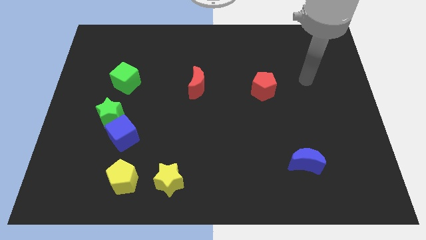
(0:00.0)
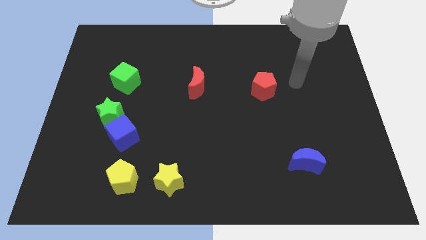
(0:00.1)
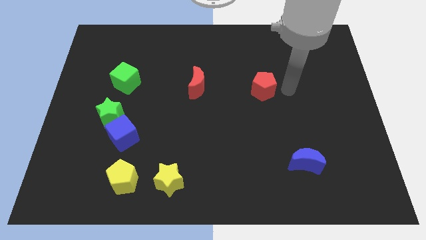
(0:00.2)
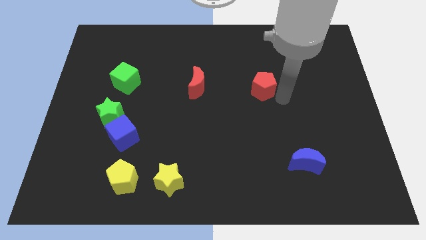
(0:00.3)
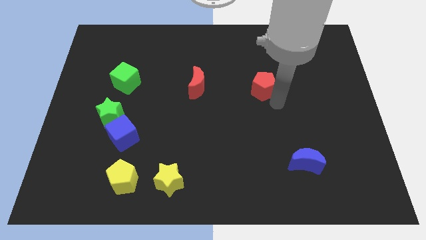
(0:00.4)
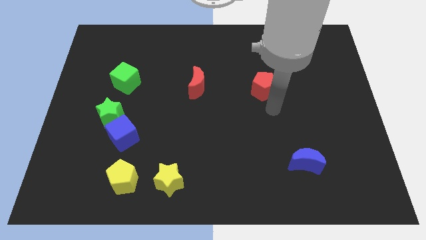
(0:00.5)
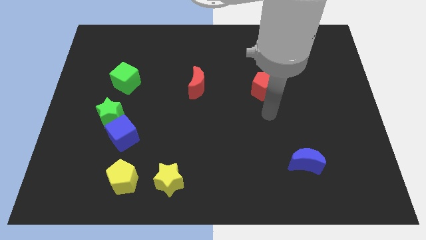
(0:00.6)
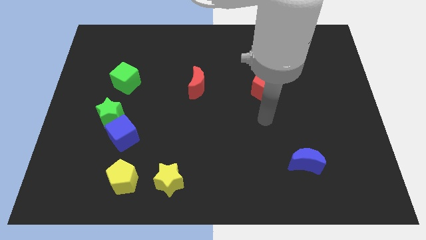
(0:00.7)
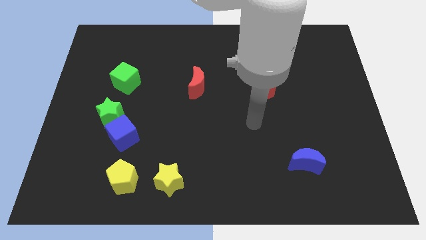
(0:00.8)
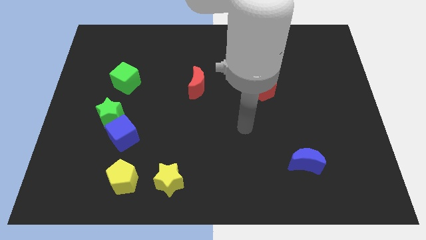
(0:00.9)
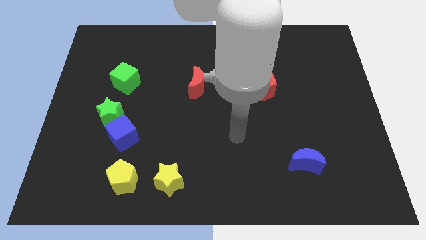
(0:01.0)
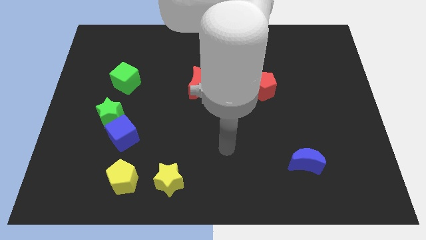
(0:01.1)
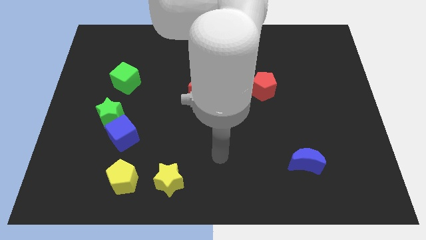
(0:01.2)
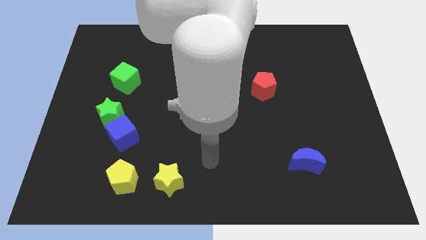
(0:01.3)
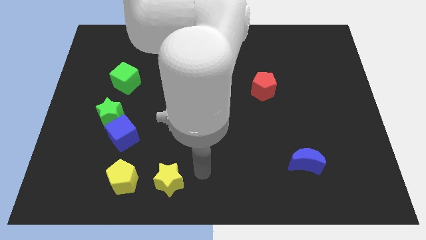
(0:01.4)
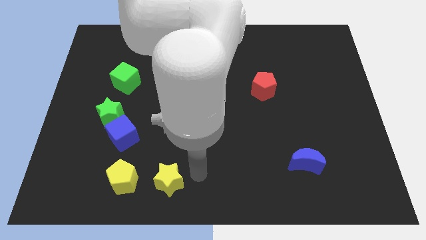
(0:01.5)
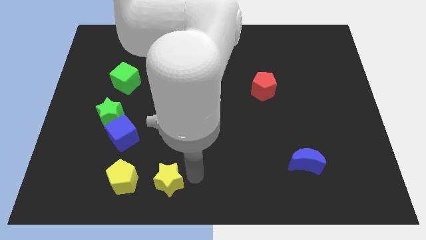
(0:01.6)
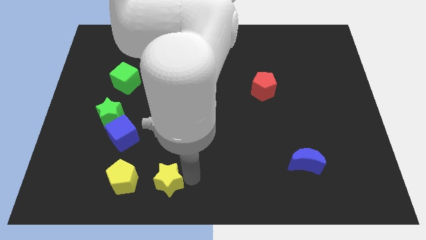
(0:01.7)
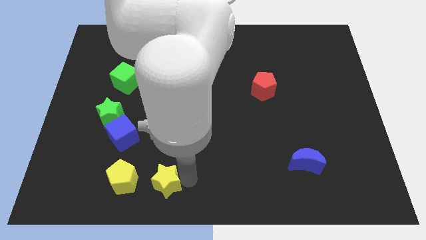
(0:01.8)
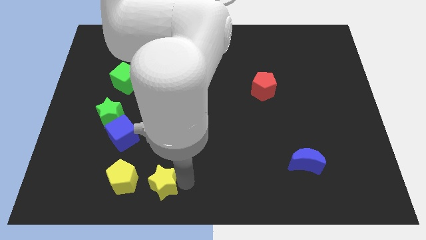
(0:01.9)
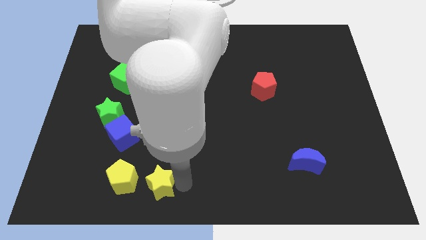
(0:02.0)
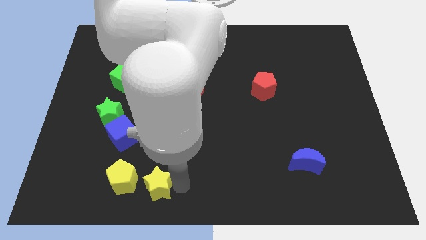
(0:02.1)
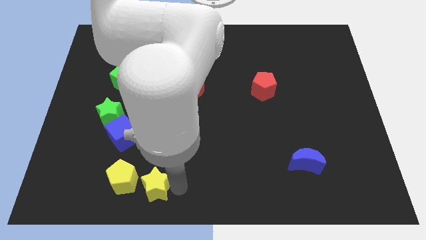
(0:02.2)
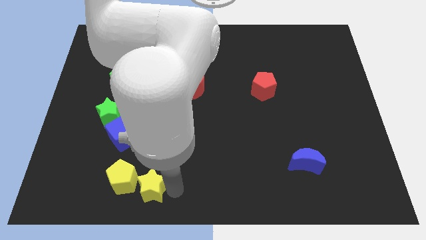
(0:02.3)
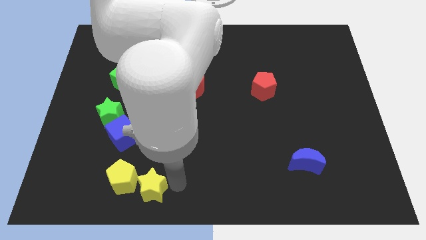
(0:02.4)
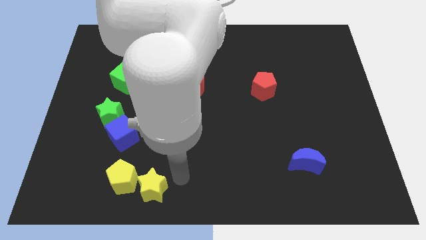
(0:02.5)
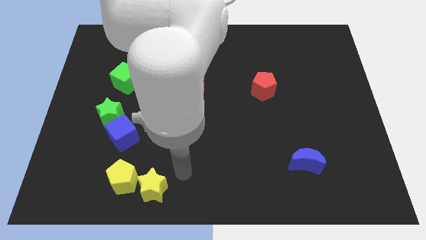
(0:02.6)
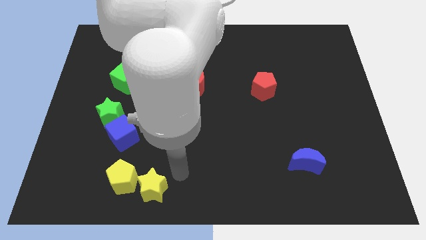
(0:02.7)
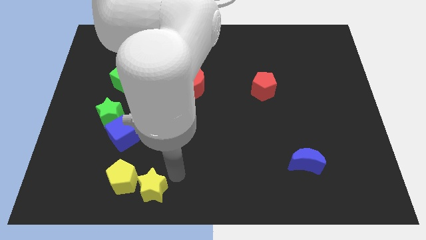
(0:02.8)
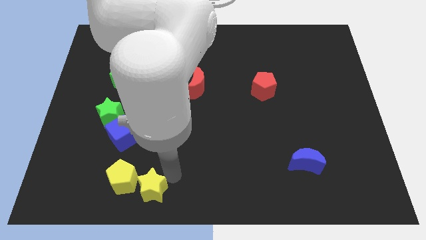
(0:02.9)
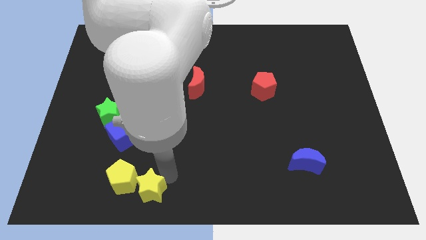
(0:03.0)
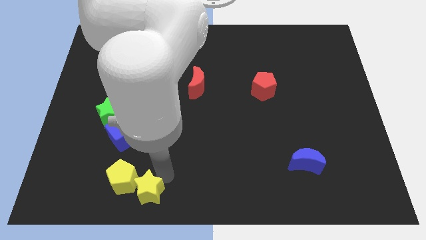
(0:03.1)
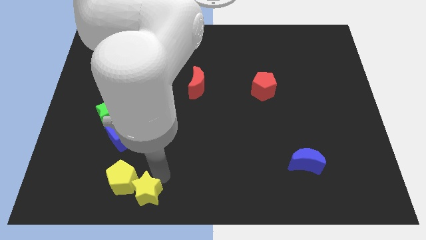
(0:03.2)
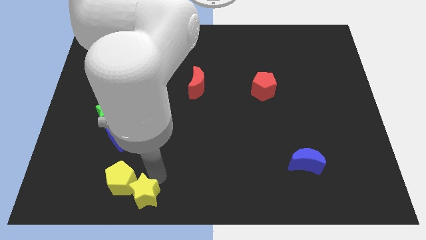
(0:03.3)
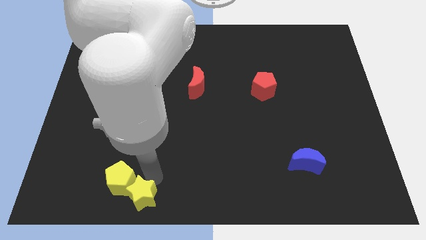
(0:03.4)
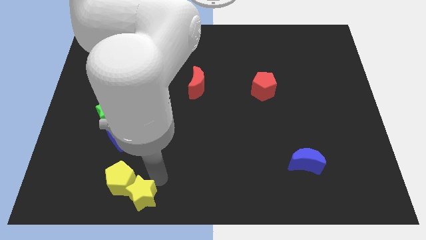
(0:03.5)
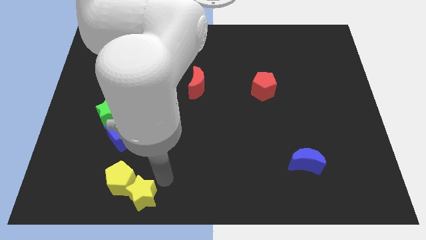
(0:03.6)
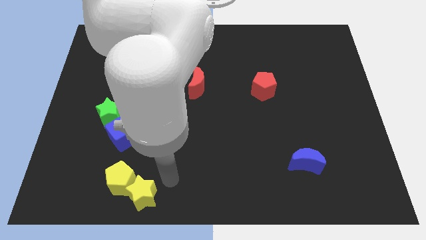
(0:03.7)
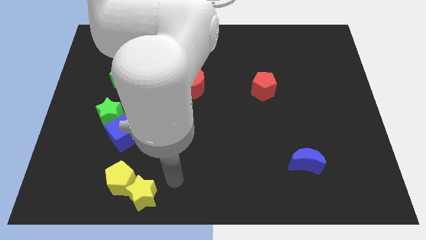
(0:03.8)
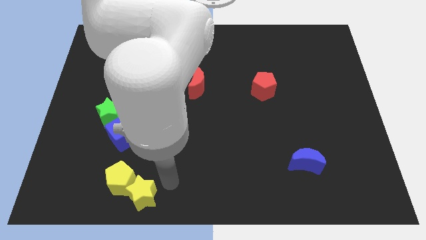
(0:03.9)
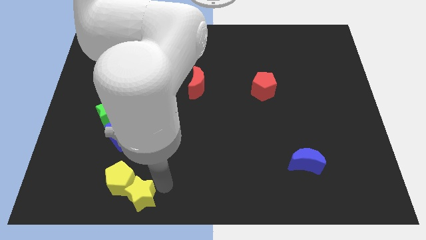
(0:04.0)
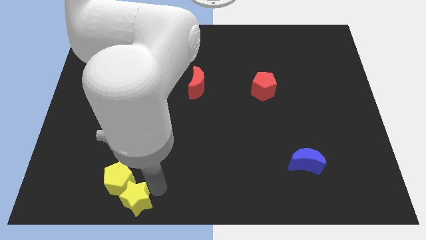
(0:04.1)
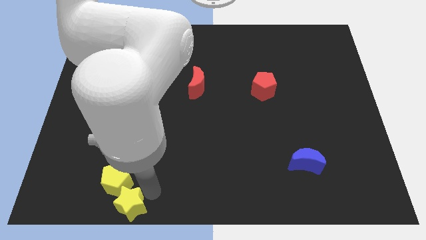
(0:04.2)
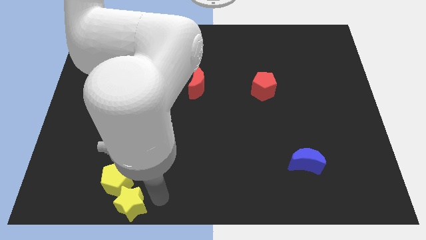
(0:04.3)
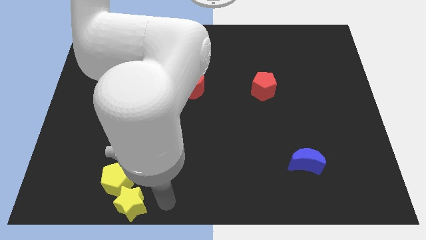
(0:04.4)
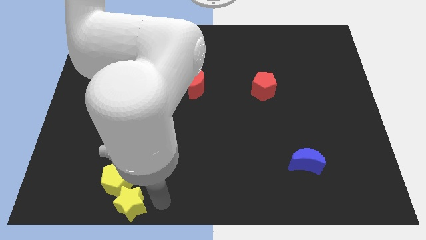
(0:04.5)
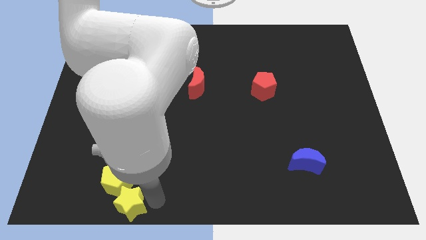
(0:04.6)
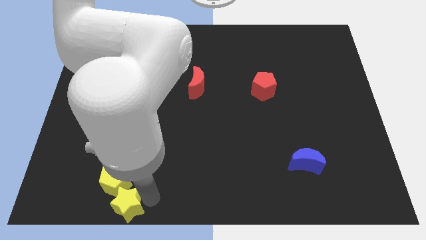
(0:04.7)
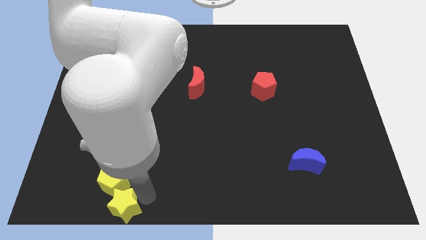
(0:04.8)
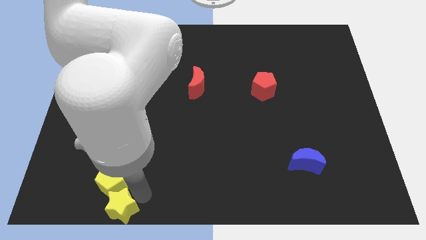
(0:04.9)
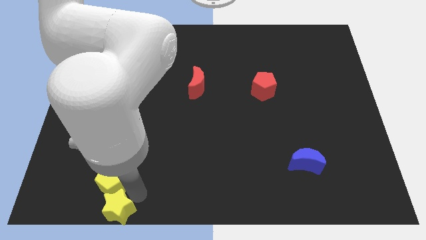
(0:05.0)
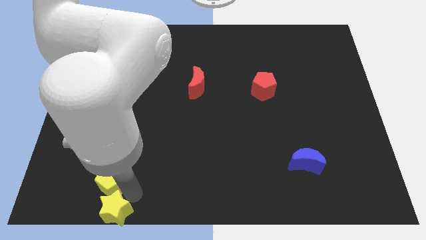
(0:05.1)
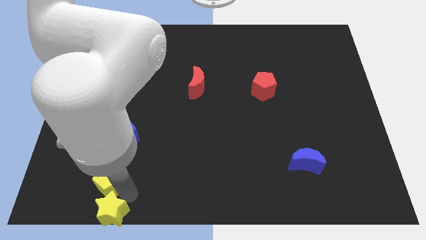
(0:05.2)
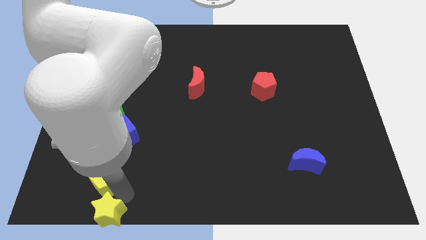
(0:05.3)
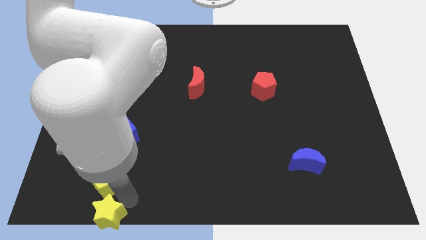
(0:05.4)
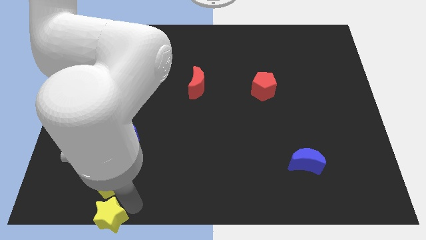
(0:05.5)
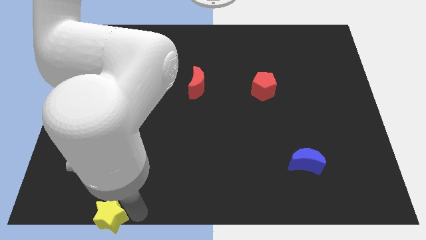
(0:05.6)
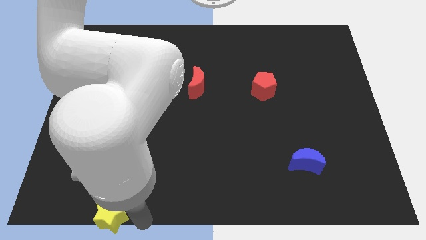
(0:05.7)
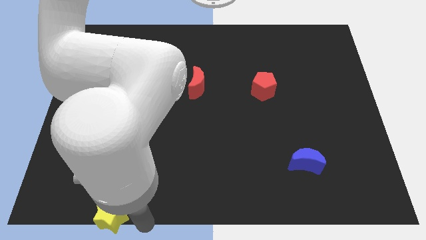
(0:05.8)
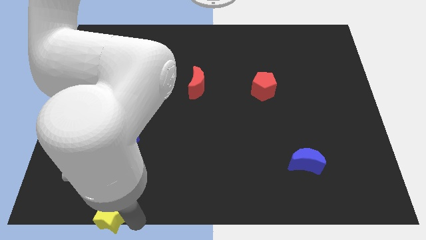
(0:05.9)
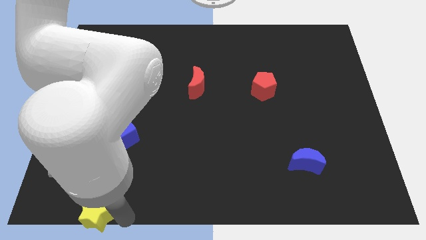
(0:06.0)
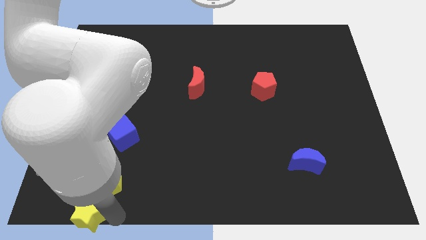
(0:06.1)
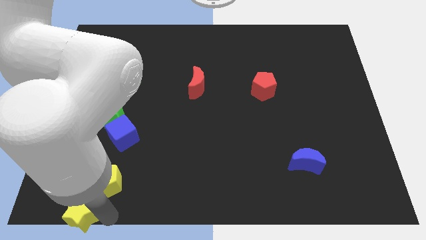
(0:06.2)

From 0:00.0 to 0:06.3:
slide the yellow star to the bottom left of the board
